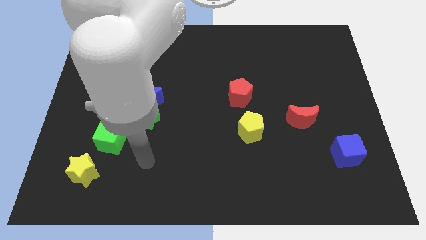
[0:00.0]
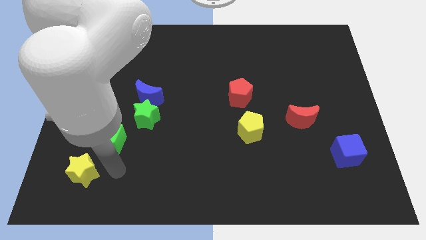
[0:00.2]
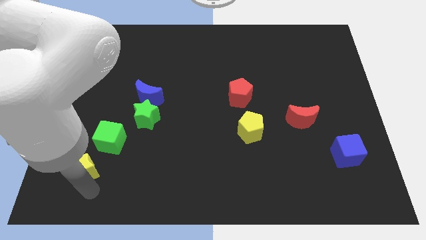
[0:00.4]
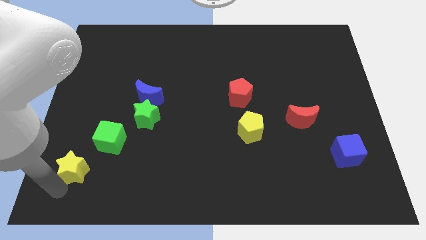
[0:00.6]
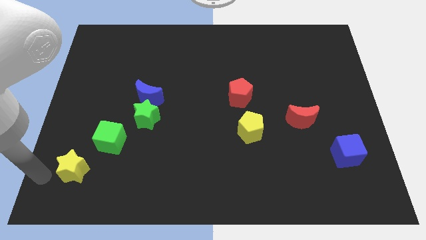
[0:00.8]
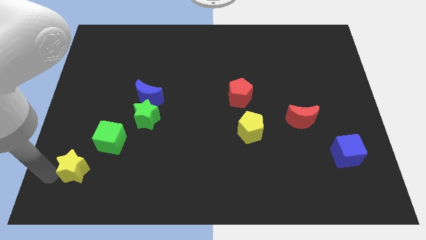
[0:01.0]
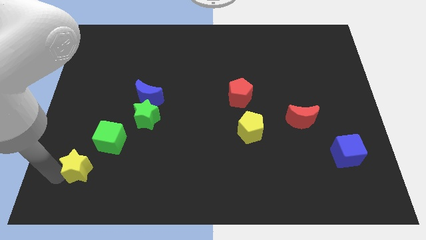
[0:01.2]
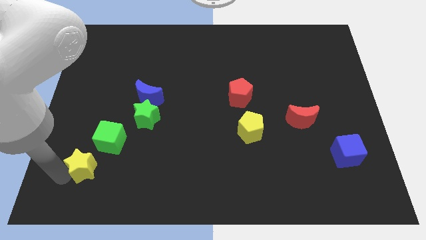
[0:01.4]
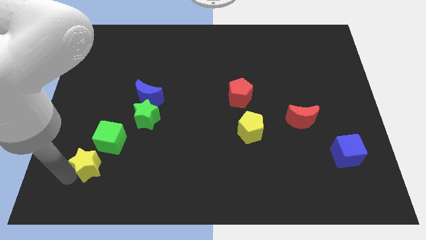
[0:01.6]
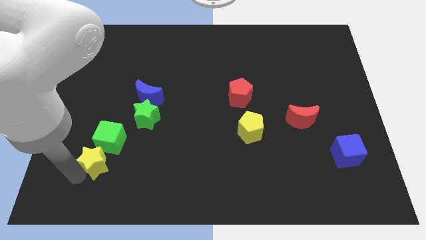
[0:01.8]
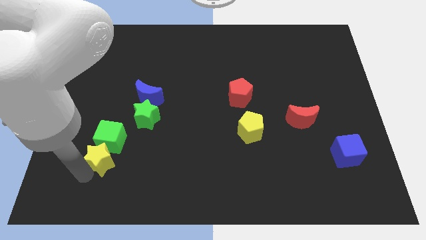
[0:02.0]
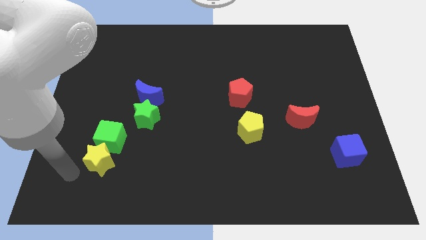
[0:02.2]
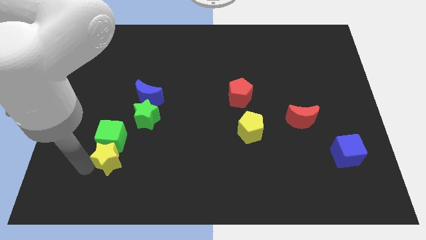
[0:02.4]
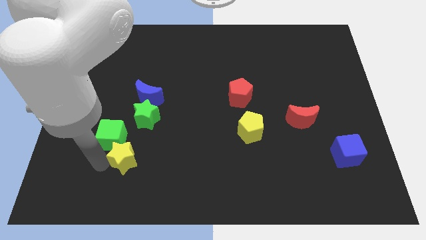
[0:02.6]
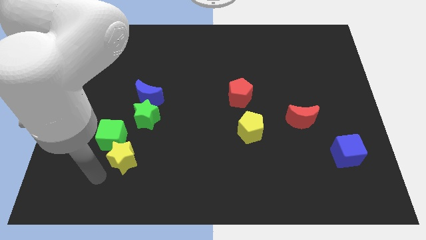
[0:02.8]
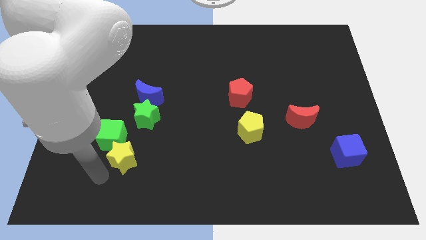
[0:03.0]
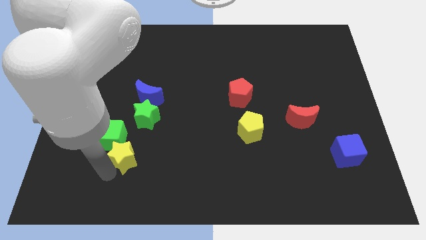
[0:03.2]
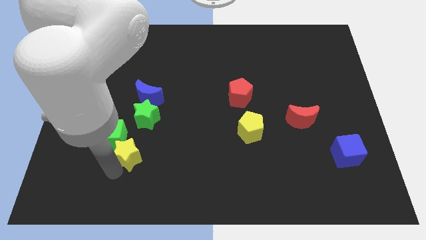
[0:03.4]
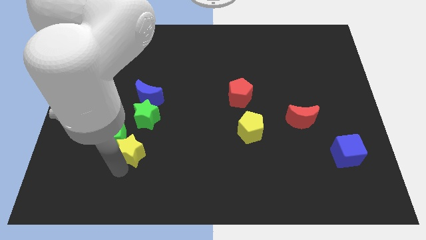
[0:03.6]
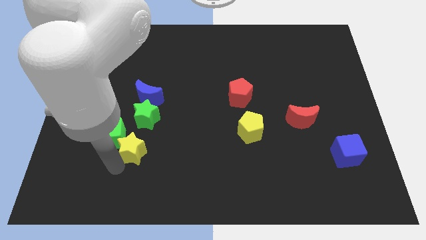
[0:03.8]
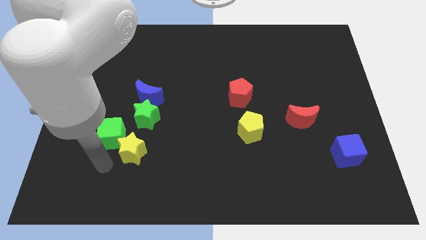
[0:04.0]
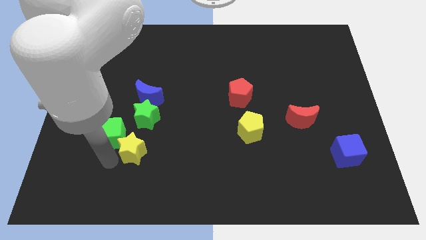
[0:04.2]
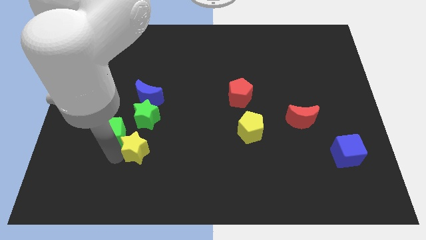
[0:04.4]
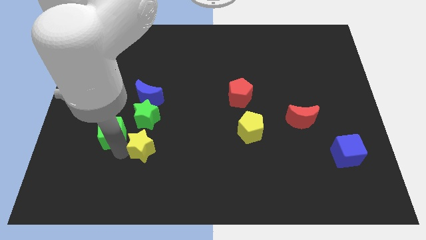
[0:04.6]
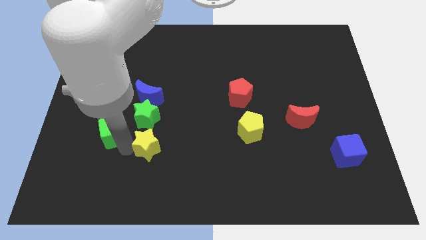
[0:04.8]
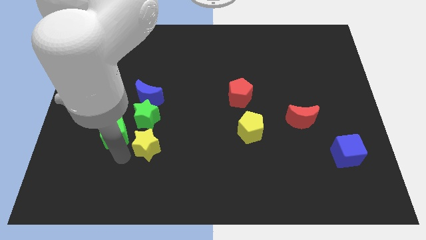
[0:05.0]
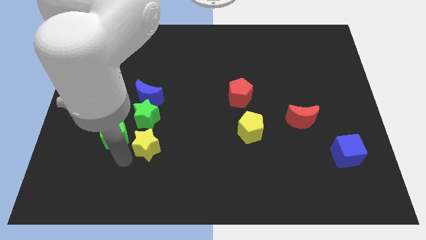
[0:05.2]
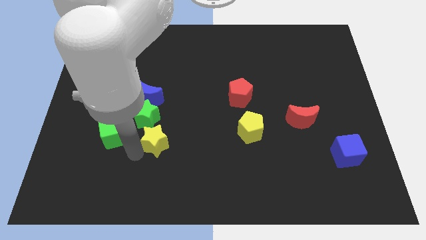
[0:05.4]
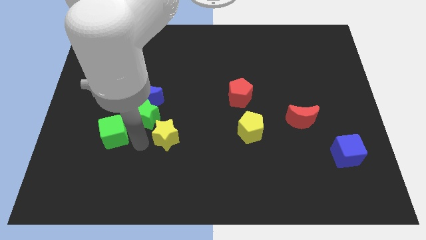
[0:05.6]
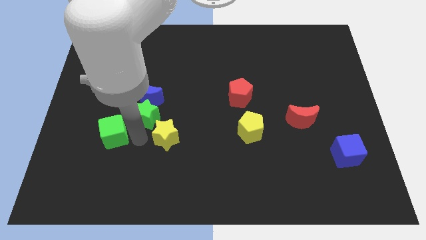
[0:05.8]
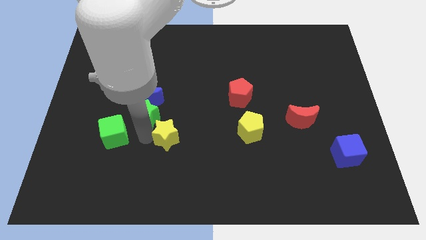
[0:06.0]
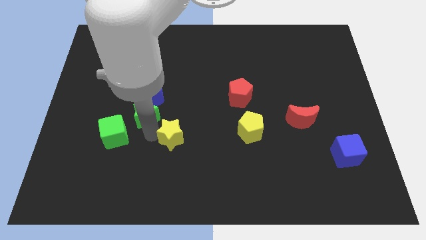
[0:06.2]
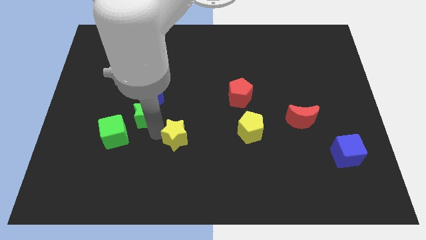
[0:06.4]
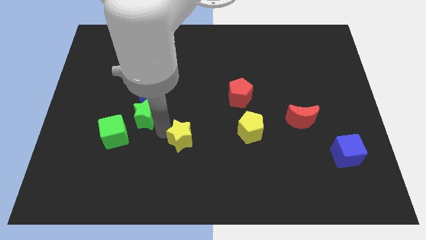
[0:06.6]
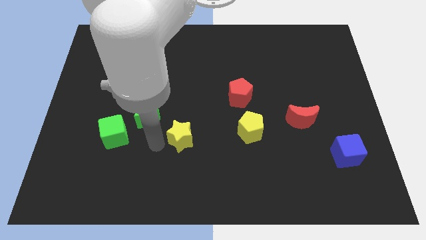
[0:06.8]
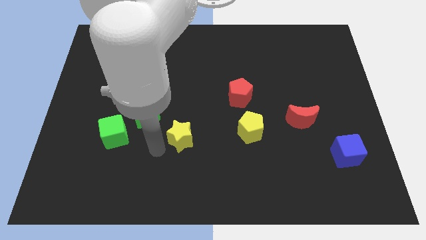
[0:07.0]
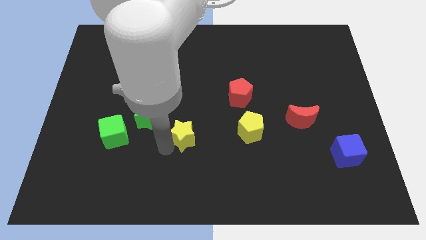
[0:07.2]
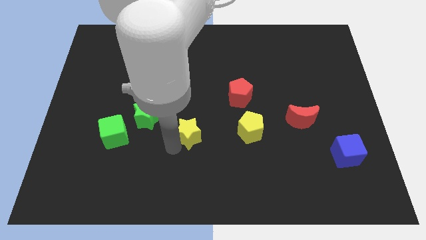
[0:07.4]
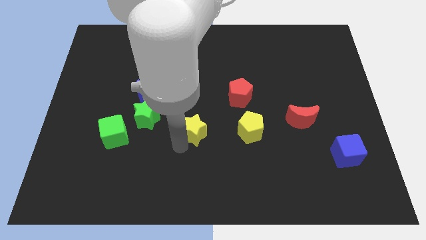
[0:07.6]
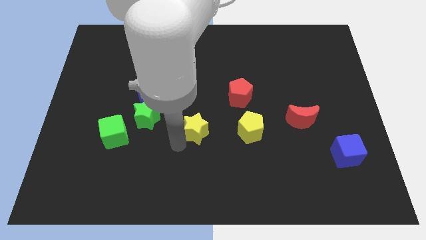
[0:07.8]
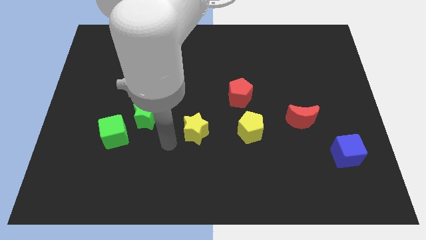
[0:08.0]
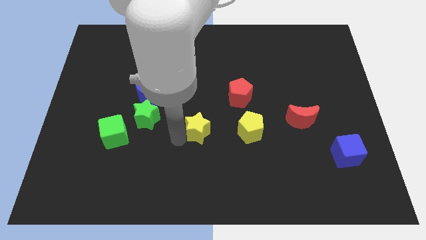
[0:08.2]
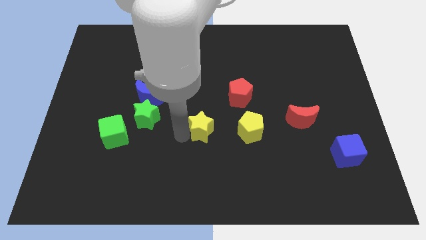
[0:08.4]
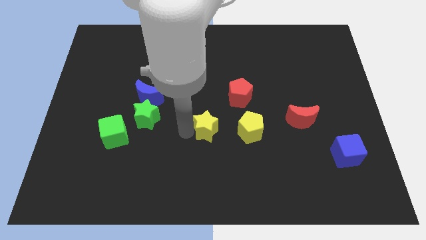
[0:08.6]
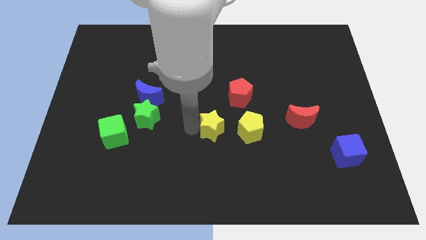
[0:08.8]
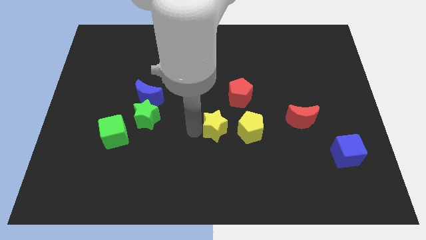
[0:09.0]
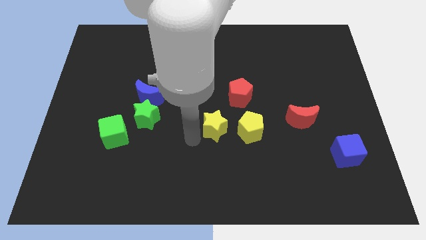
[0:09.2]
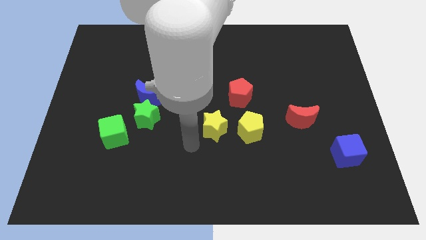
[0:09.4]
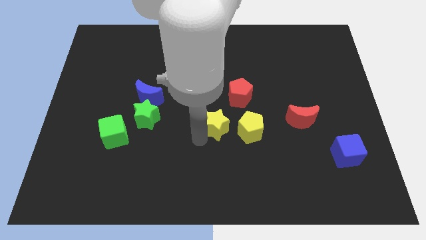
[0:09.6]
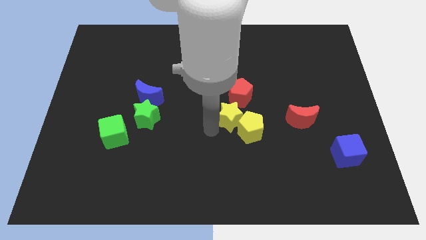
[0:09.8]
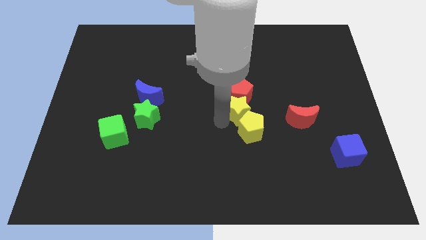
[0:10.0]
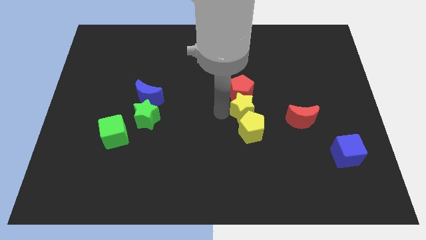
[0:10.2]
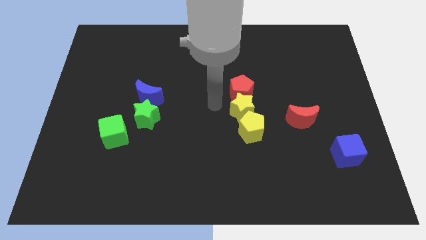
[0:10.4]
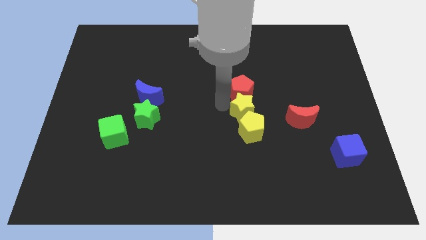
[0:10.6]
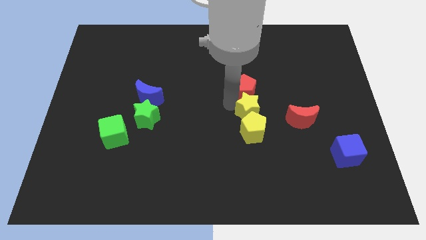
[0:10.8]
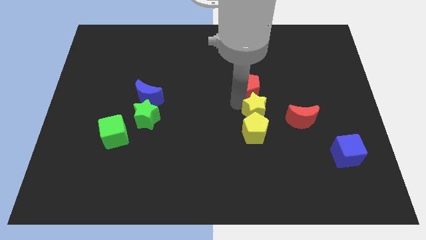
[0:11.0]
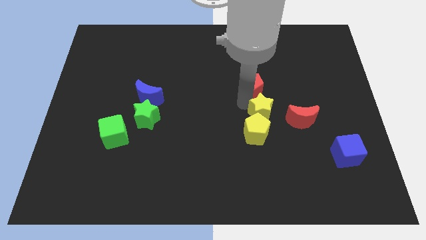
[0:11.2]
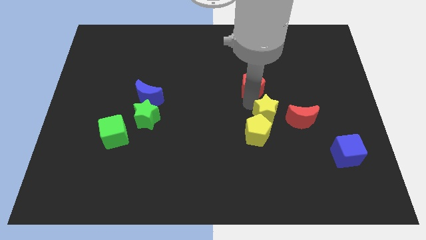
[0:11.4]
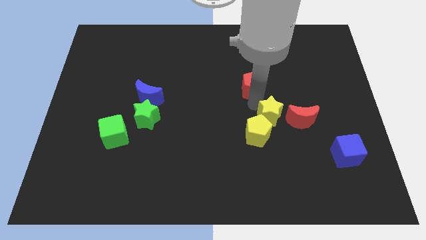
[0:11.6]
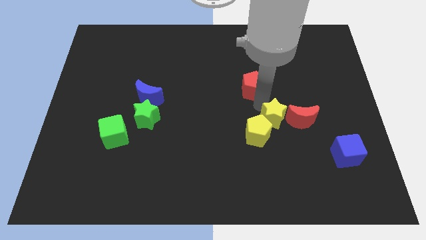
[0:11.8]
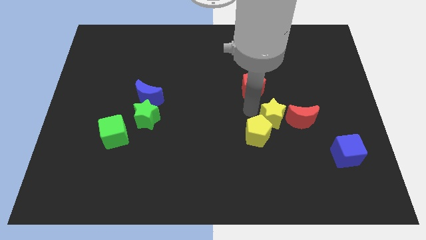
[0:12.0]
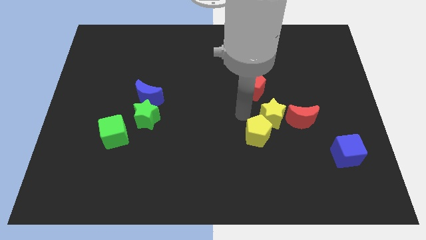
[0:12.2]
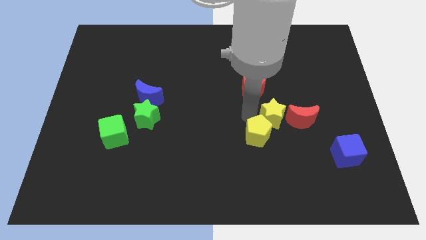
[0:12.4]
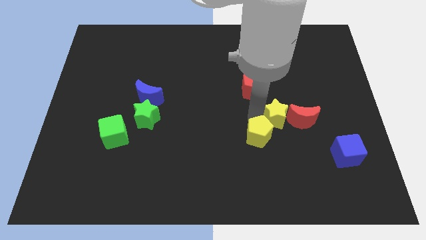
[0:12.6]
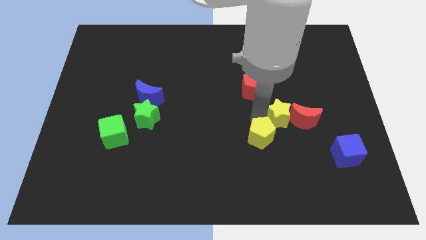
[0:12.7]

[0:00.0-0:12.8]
move the yellow star towards the red moon

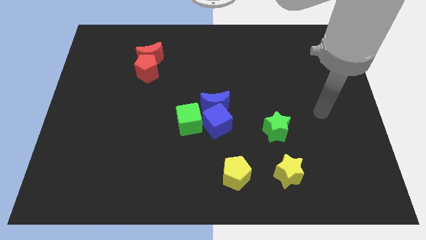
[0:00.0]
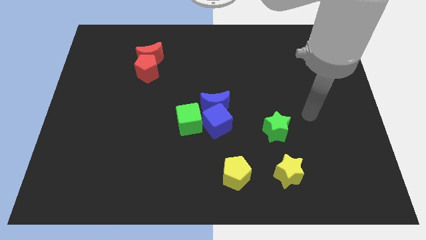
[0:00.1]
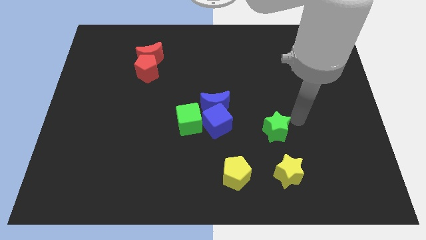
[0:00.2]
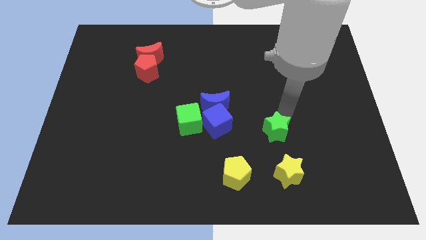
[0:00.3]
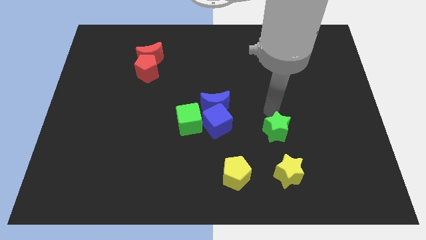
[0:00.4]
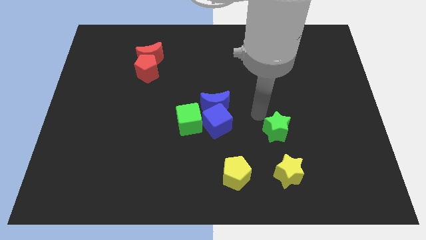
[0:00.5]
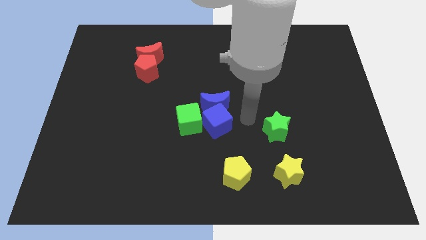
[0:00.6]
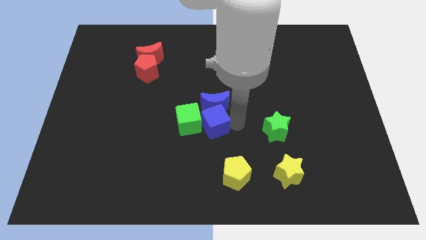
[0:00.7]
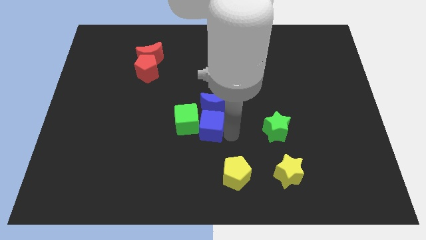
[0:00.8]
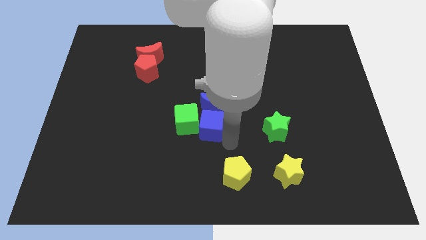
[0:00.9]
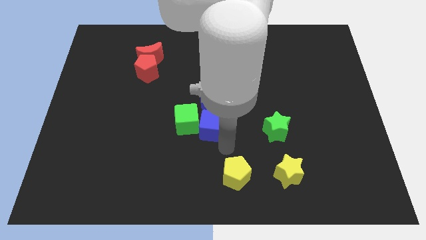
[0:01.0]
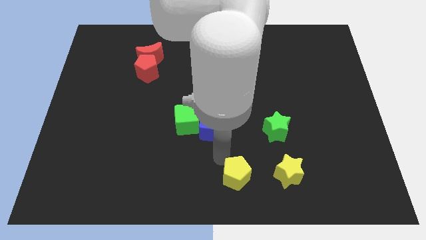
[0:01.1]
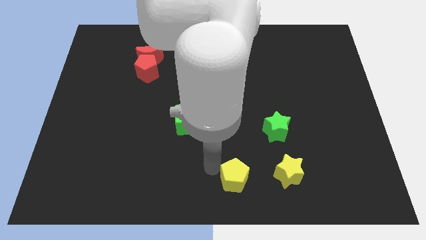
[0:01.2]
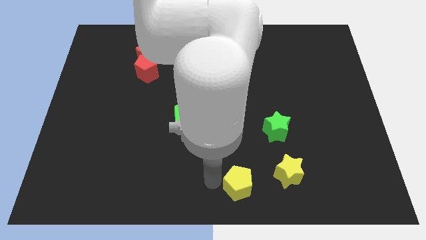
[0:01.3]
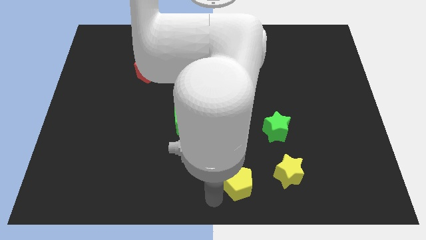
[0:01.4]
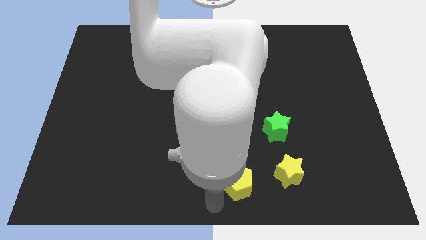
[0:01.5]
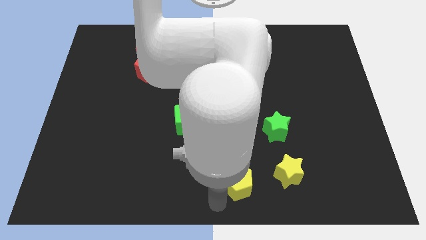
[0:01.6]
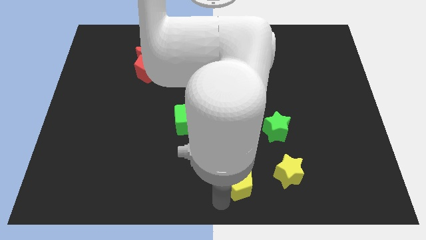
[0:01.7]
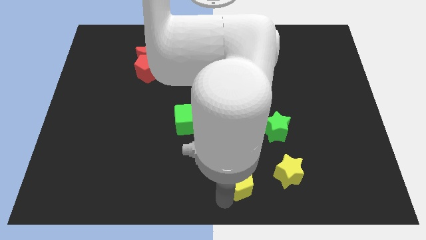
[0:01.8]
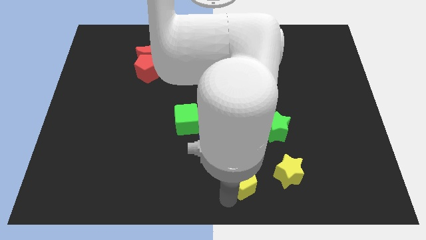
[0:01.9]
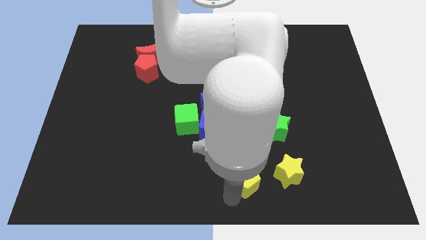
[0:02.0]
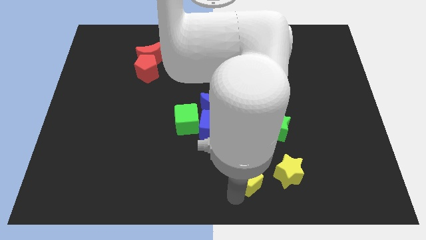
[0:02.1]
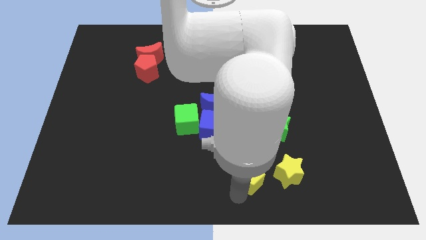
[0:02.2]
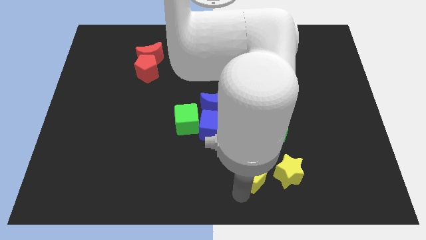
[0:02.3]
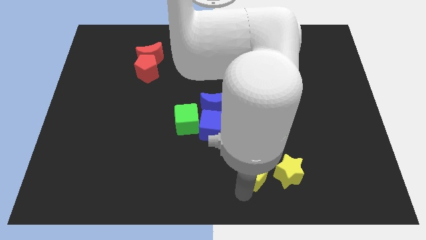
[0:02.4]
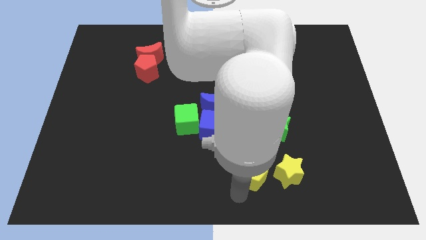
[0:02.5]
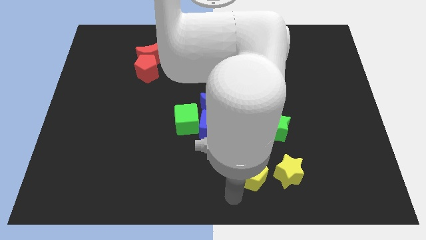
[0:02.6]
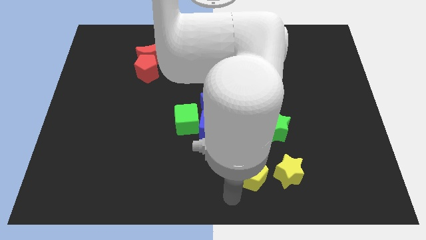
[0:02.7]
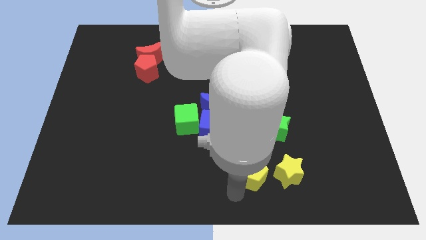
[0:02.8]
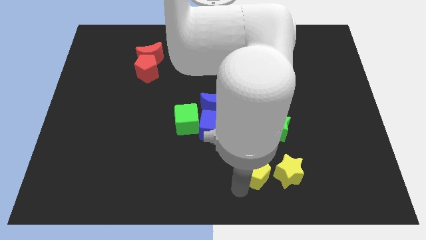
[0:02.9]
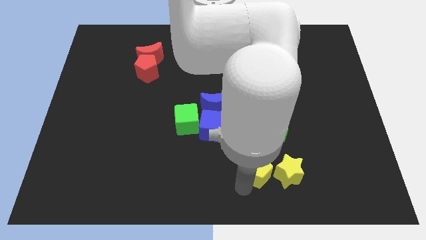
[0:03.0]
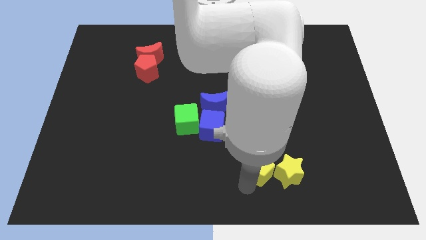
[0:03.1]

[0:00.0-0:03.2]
slide the yellow pentagon to the yellow star
